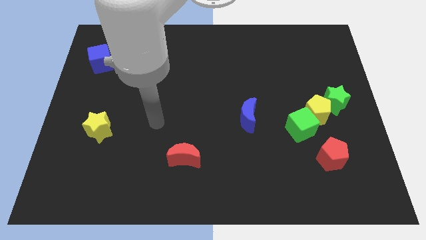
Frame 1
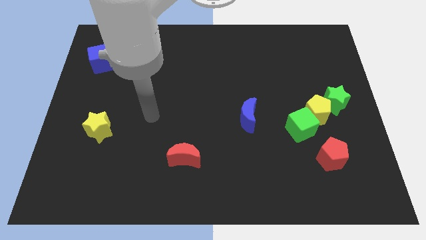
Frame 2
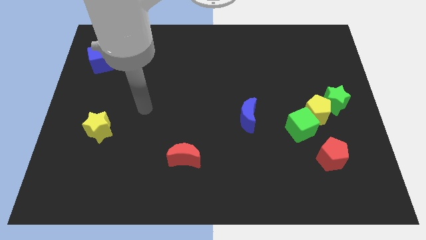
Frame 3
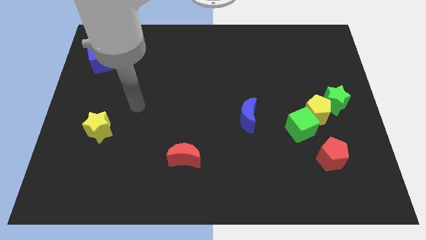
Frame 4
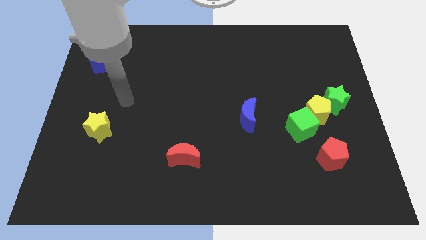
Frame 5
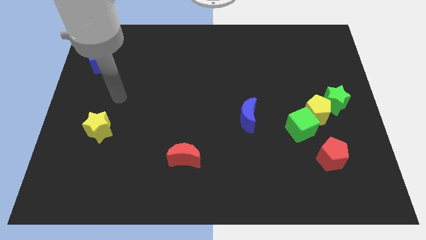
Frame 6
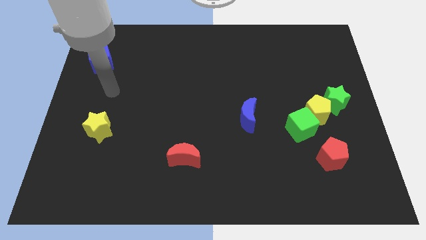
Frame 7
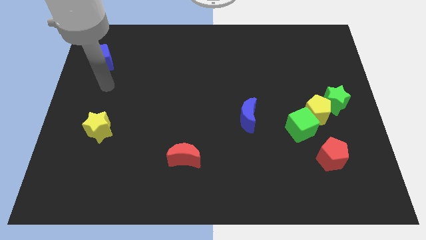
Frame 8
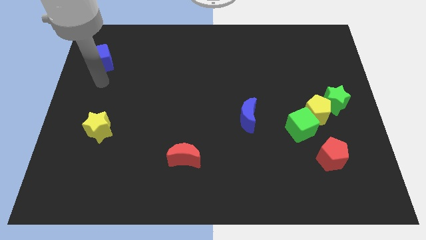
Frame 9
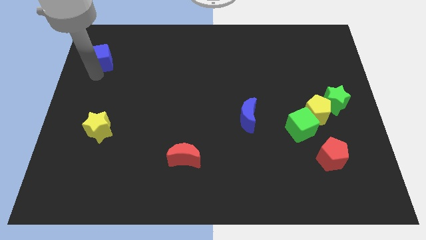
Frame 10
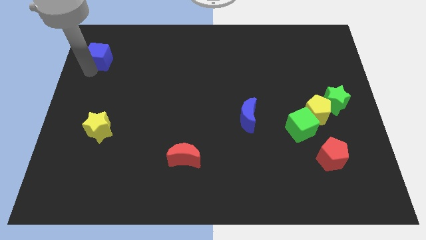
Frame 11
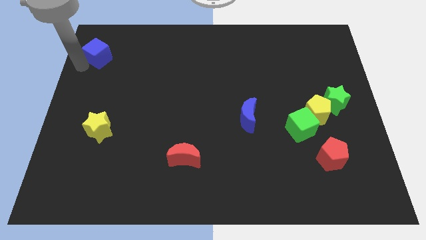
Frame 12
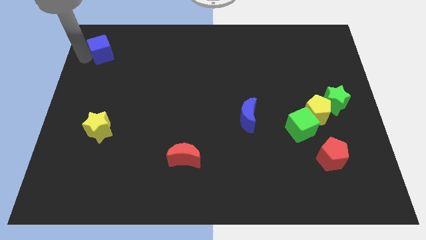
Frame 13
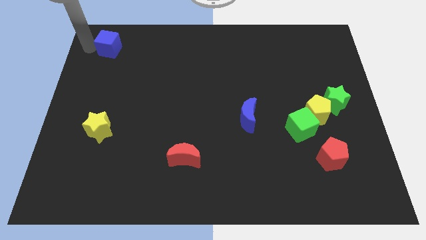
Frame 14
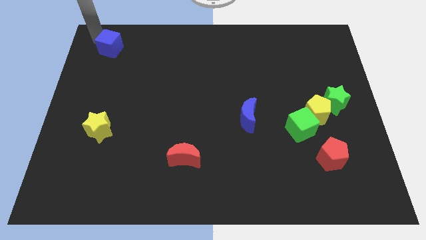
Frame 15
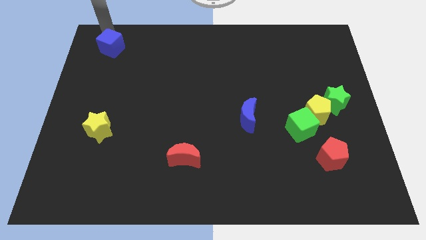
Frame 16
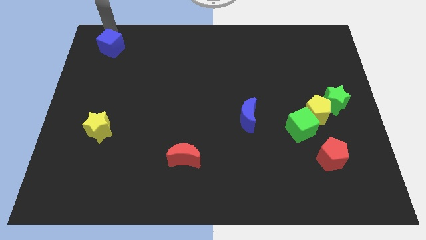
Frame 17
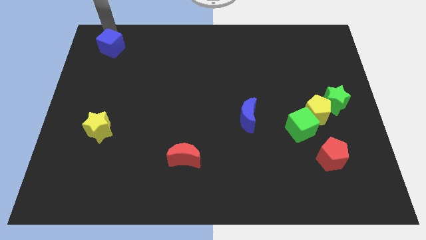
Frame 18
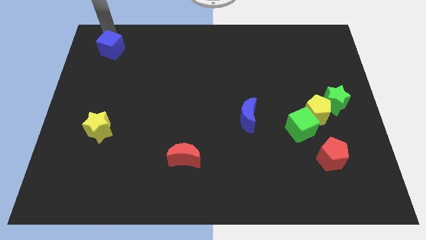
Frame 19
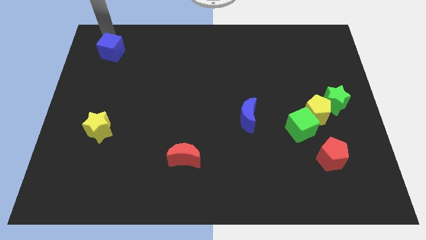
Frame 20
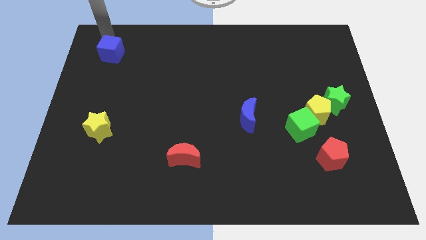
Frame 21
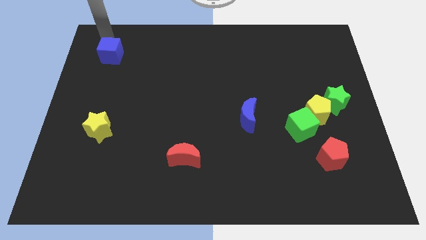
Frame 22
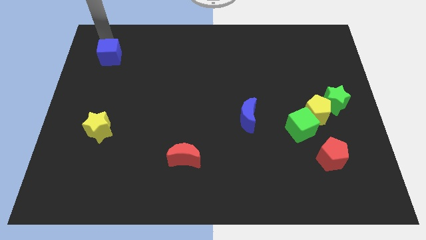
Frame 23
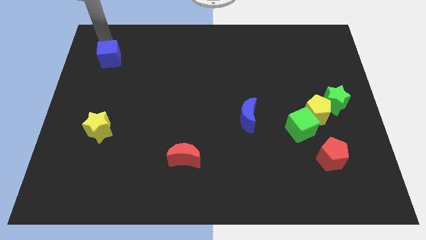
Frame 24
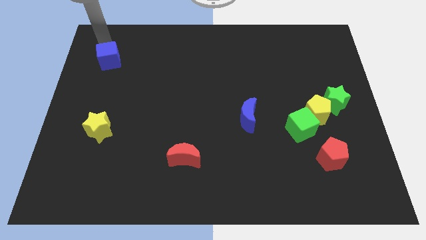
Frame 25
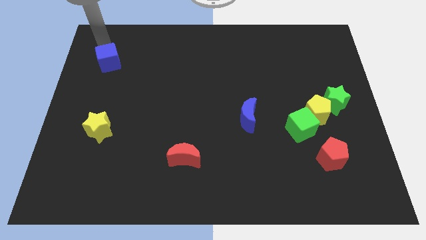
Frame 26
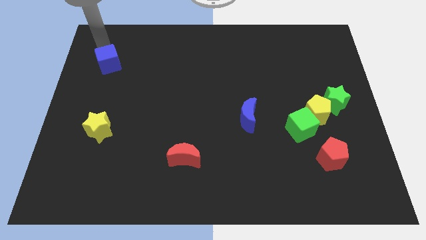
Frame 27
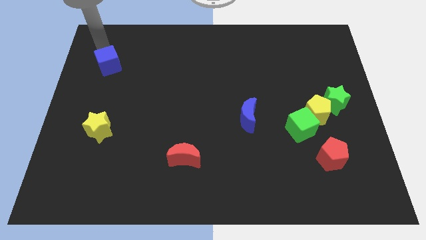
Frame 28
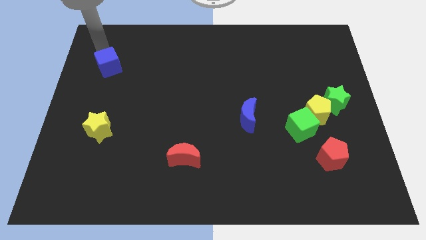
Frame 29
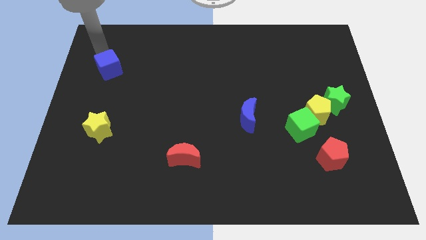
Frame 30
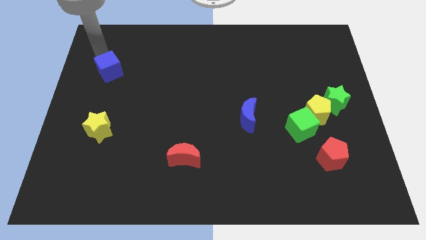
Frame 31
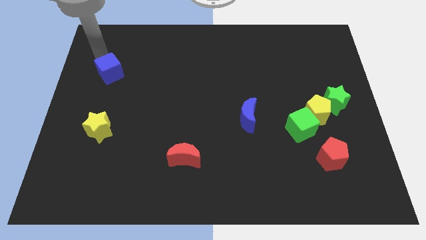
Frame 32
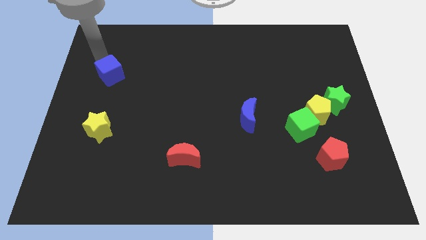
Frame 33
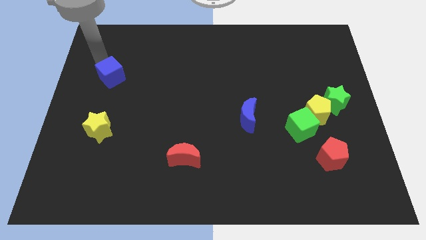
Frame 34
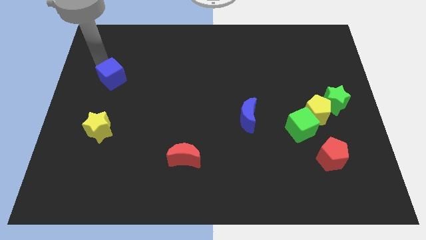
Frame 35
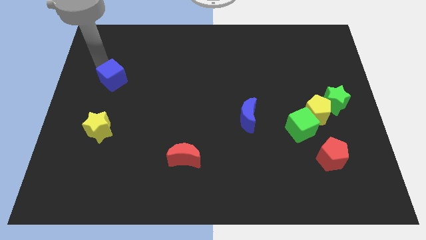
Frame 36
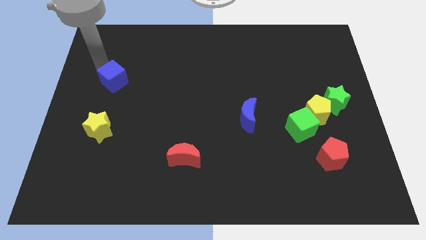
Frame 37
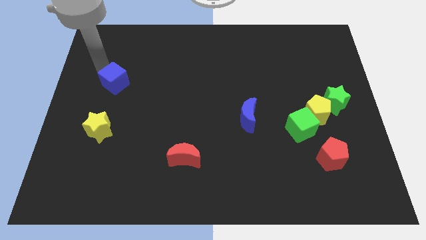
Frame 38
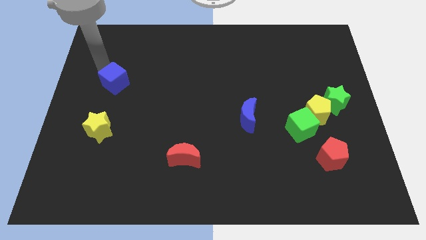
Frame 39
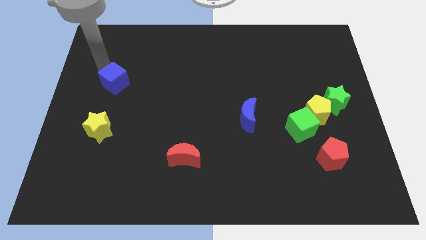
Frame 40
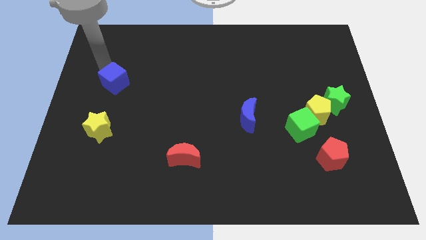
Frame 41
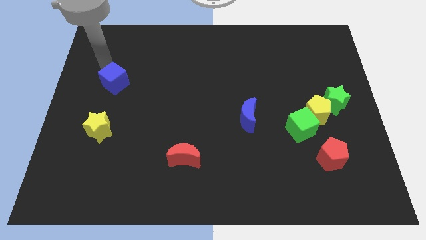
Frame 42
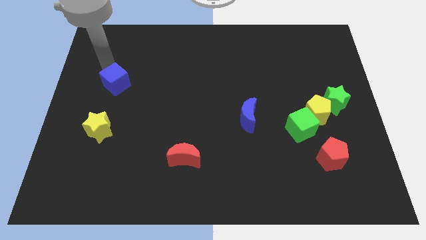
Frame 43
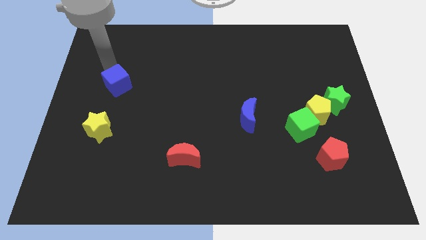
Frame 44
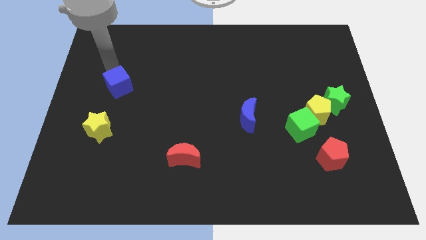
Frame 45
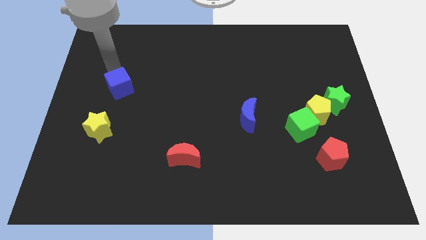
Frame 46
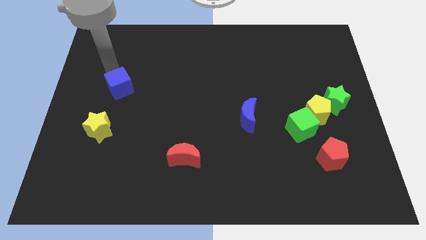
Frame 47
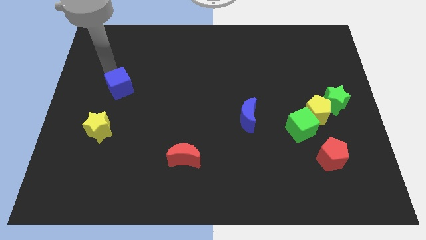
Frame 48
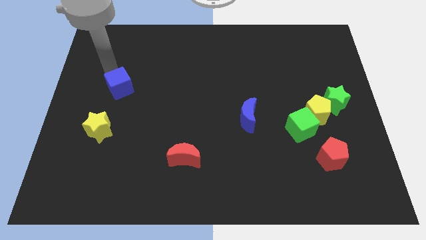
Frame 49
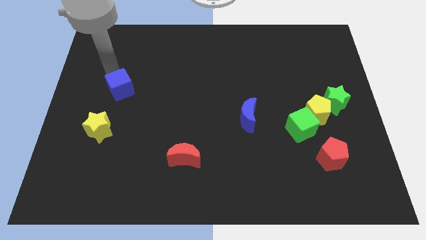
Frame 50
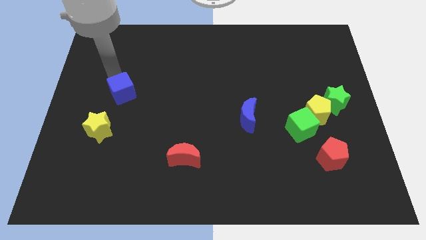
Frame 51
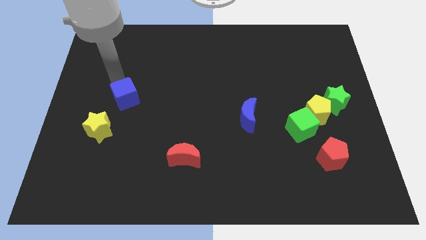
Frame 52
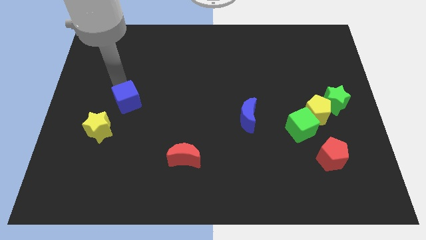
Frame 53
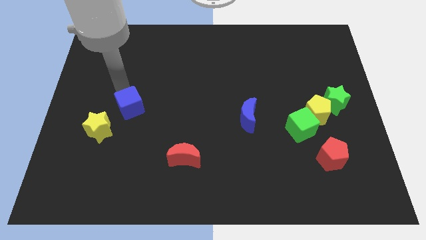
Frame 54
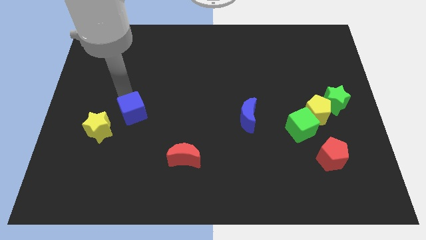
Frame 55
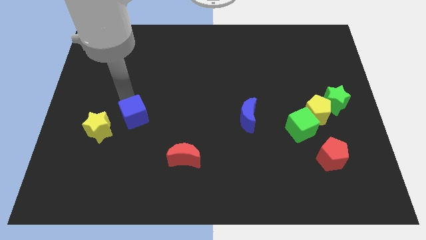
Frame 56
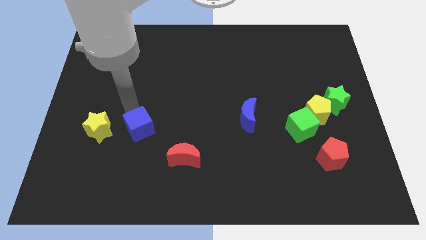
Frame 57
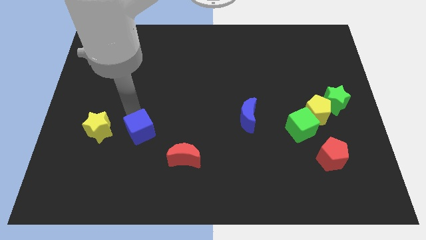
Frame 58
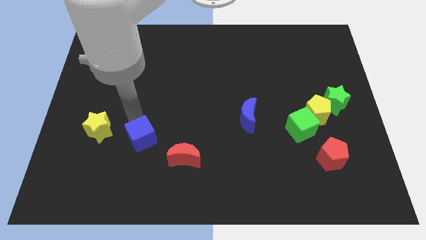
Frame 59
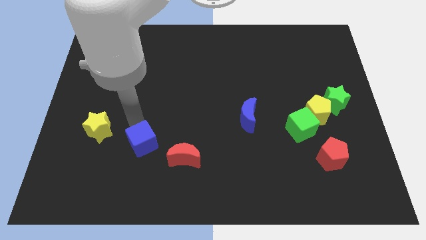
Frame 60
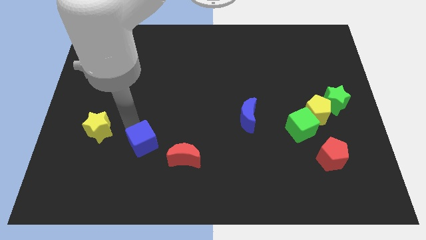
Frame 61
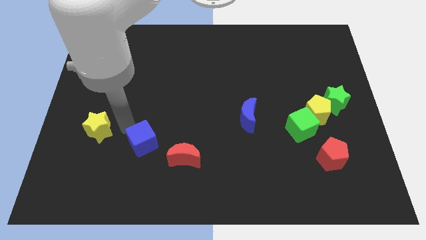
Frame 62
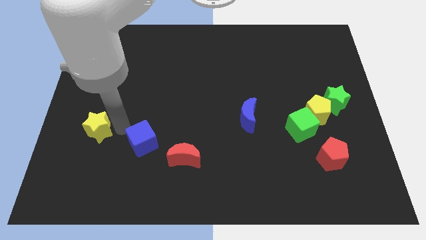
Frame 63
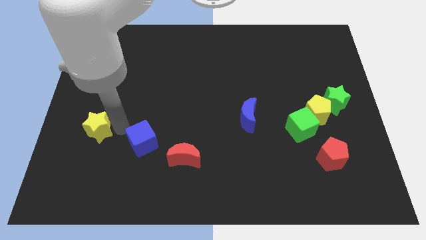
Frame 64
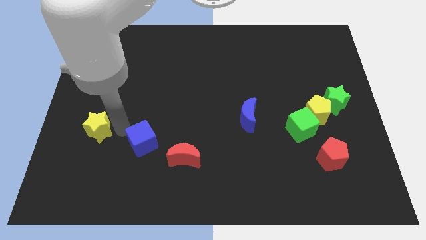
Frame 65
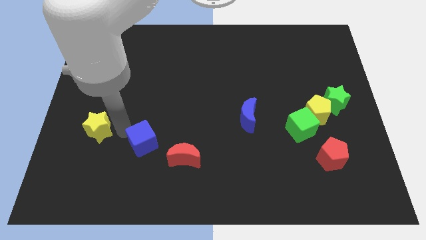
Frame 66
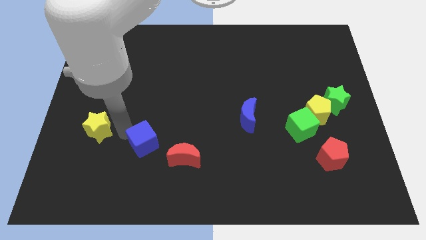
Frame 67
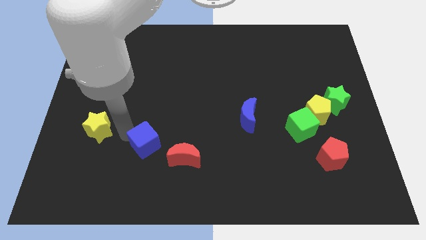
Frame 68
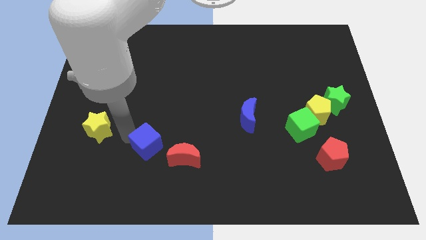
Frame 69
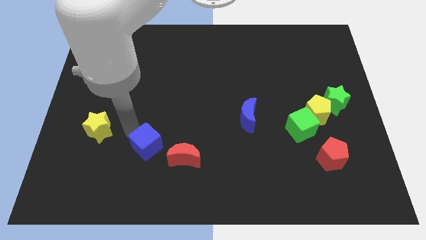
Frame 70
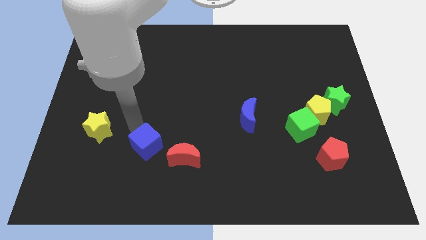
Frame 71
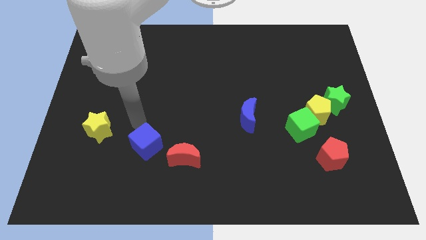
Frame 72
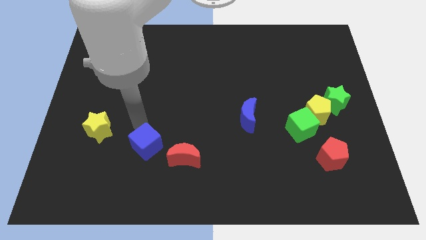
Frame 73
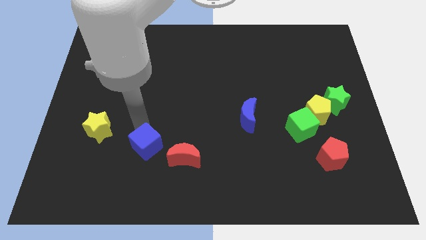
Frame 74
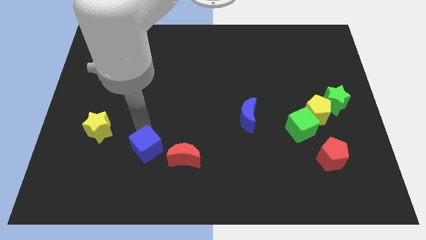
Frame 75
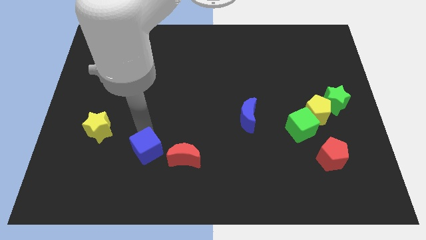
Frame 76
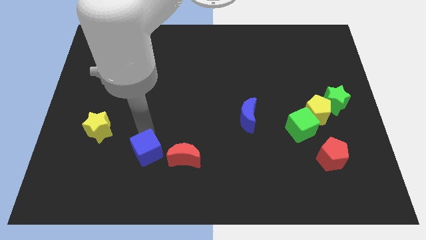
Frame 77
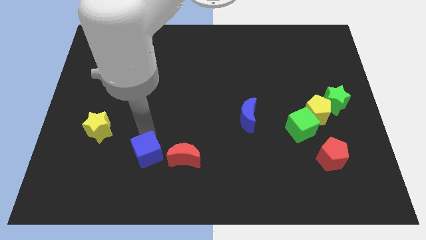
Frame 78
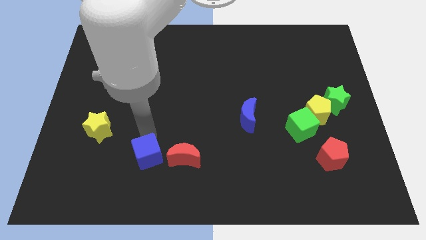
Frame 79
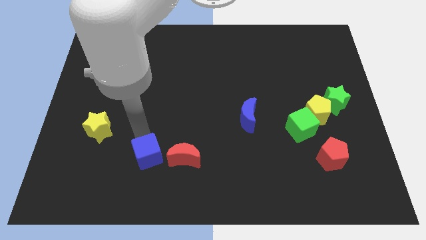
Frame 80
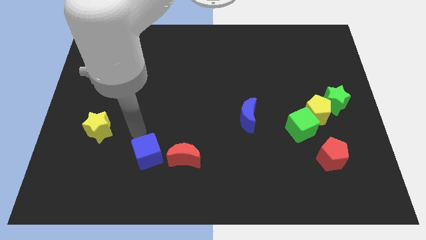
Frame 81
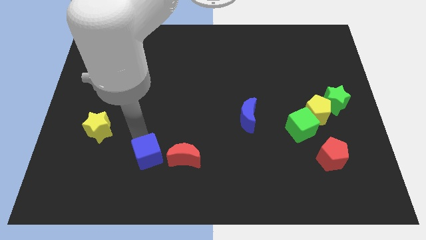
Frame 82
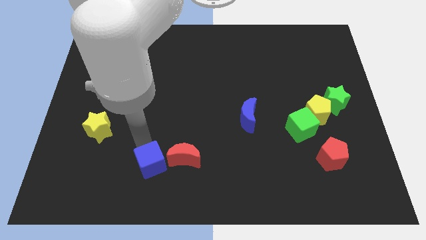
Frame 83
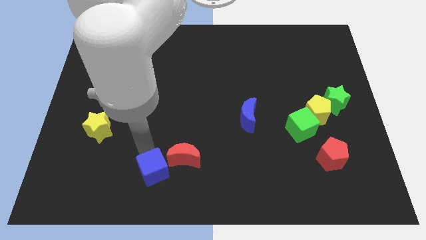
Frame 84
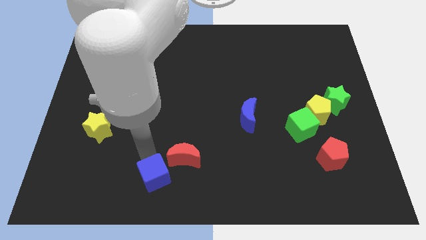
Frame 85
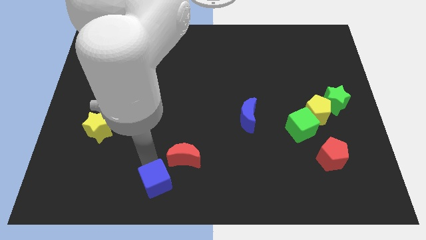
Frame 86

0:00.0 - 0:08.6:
move the blue cube to the bottom side
